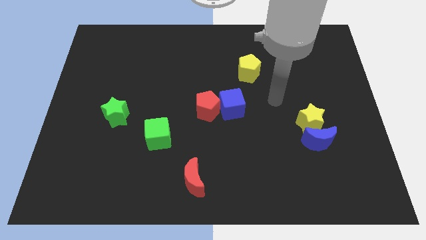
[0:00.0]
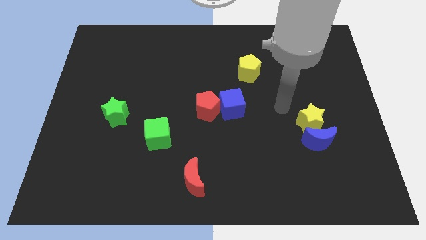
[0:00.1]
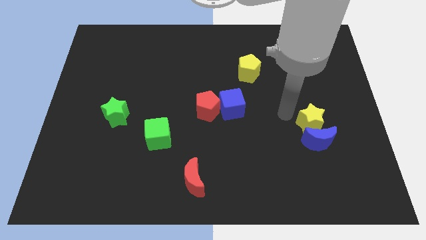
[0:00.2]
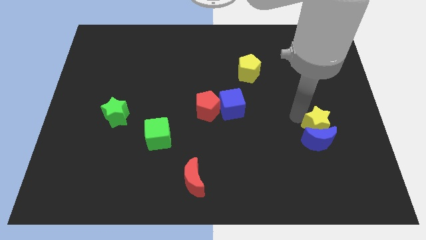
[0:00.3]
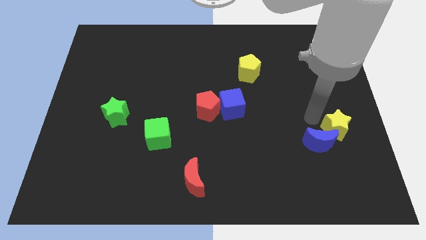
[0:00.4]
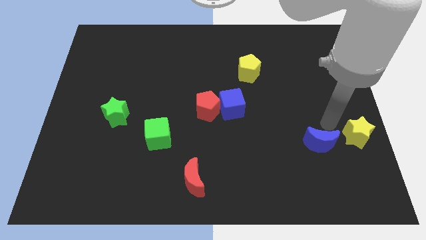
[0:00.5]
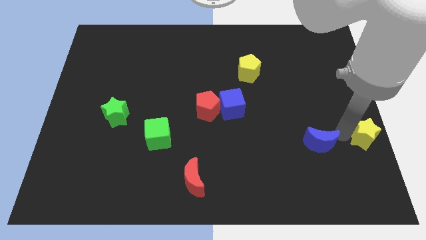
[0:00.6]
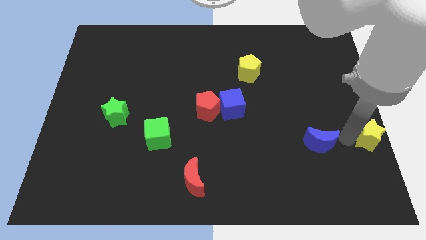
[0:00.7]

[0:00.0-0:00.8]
move the blue moon away from the yellow star

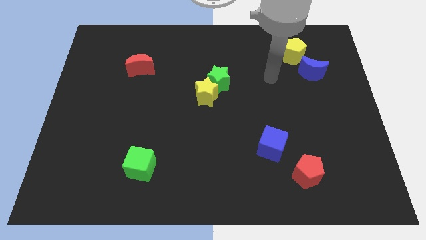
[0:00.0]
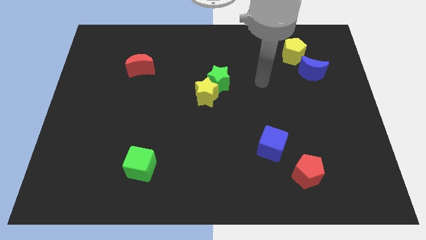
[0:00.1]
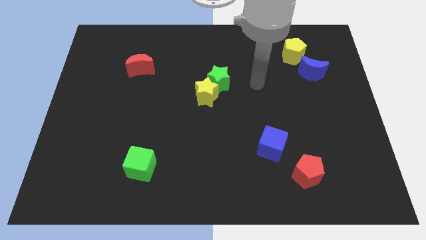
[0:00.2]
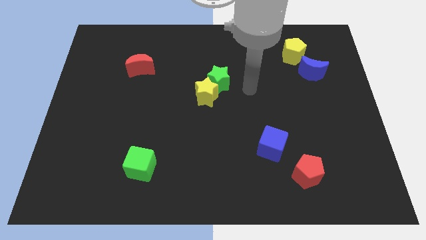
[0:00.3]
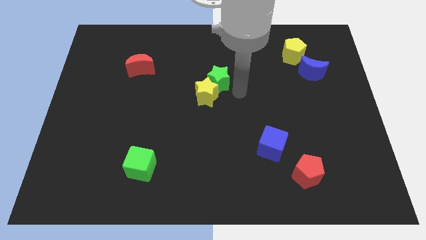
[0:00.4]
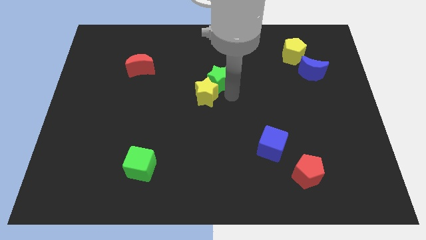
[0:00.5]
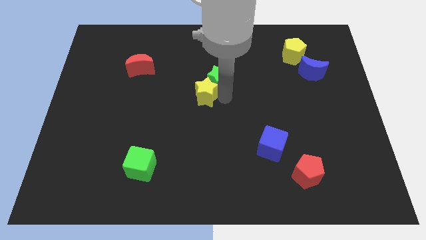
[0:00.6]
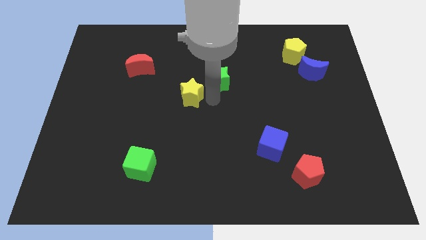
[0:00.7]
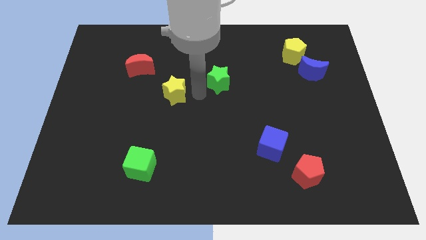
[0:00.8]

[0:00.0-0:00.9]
separate the green star from the yellow star

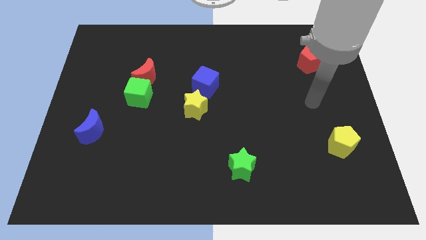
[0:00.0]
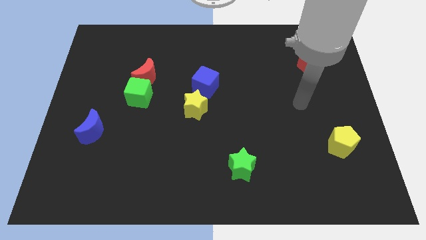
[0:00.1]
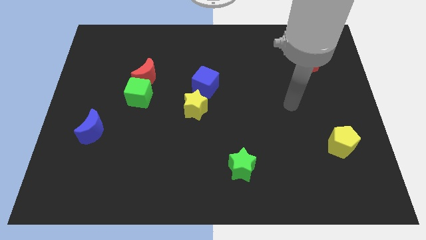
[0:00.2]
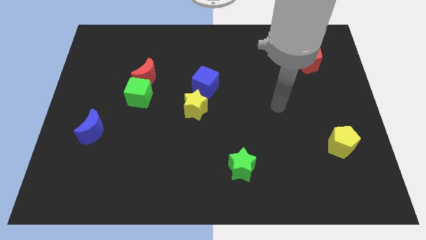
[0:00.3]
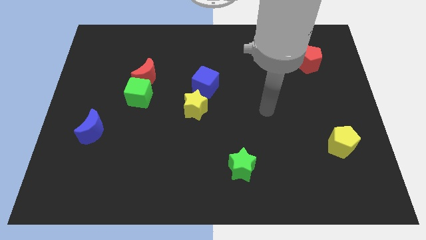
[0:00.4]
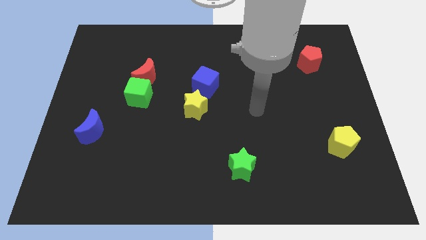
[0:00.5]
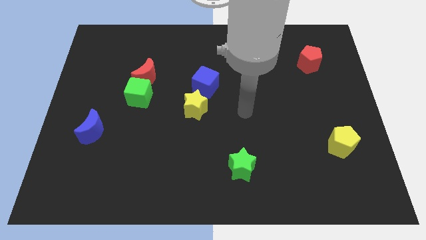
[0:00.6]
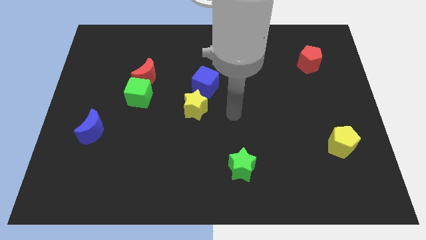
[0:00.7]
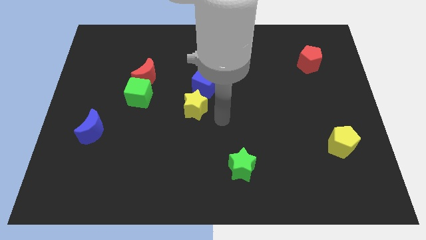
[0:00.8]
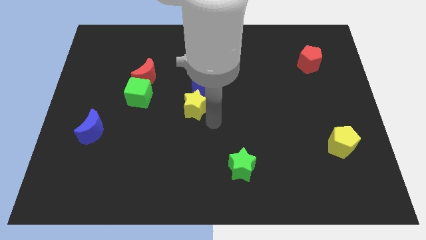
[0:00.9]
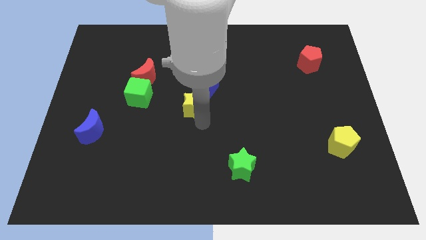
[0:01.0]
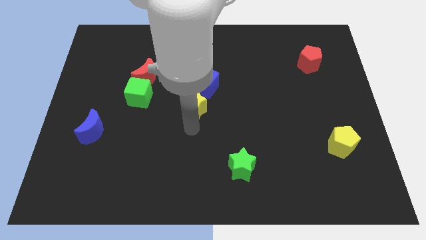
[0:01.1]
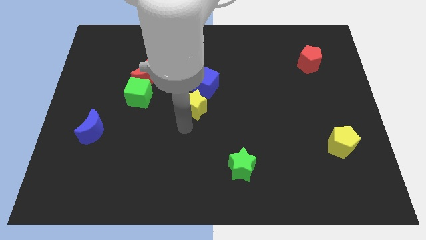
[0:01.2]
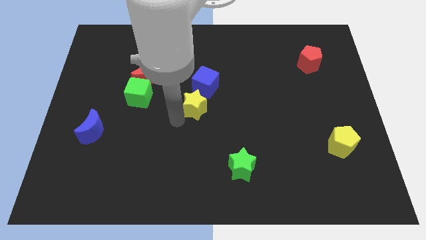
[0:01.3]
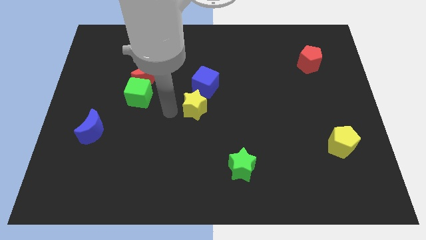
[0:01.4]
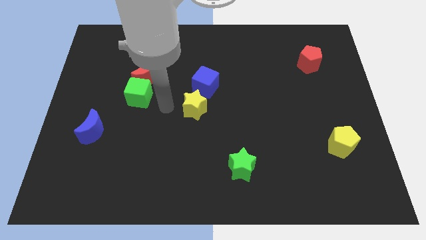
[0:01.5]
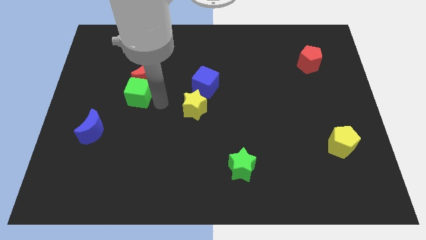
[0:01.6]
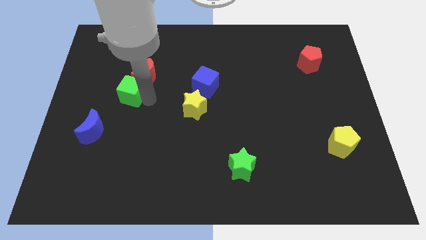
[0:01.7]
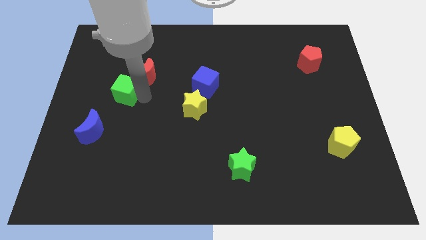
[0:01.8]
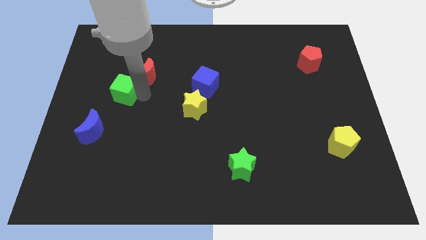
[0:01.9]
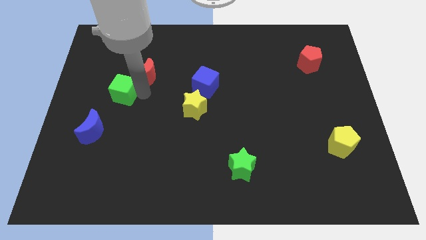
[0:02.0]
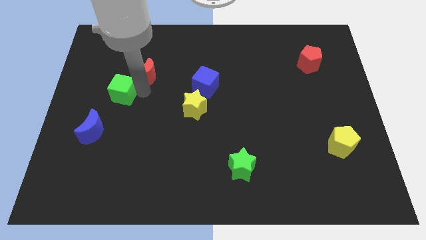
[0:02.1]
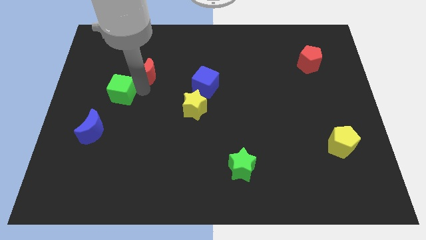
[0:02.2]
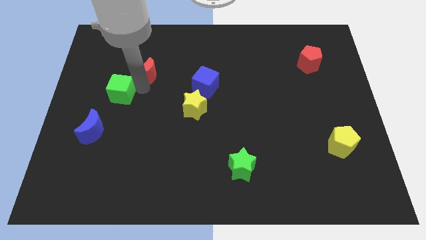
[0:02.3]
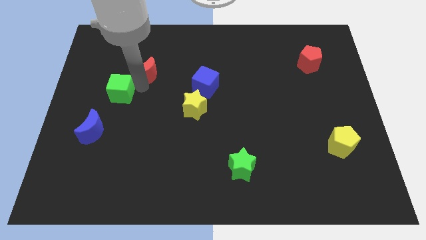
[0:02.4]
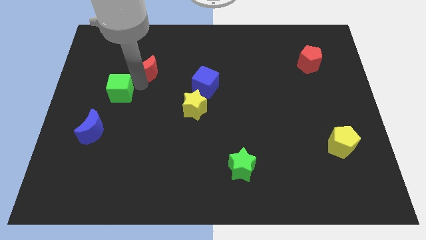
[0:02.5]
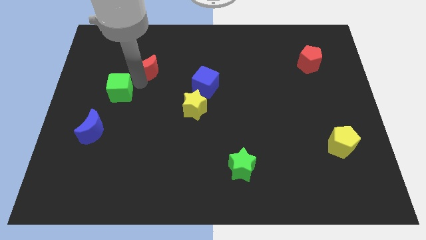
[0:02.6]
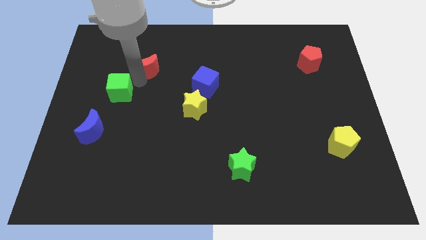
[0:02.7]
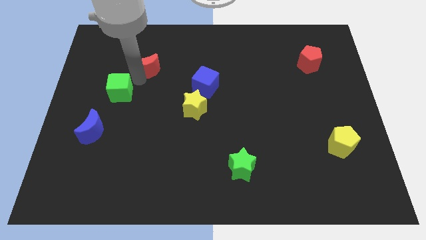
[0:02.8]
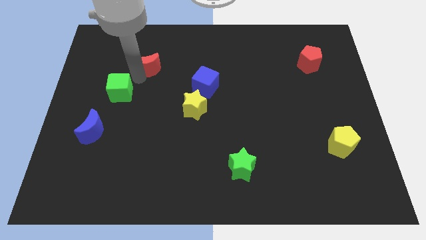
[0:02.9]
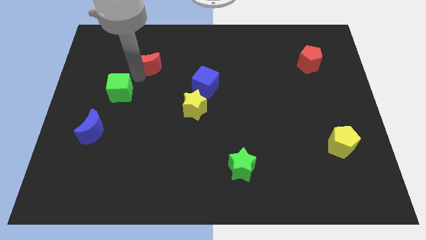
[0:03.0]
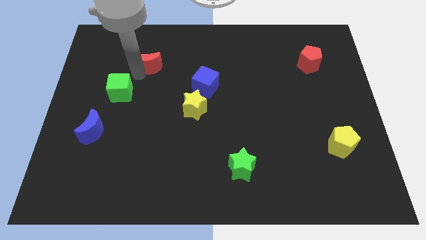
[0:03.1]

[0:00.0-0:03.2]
move the red moon away from the green cube

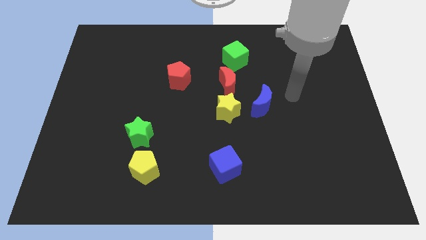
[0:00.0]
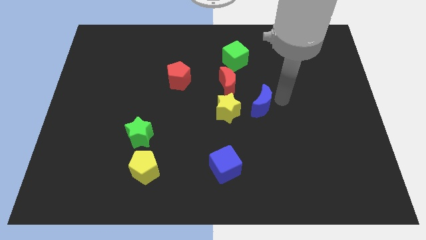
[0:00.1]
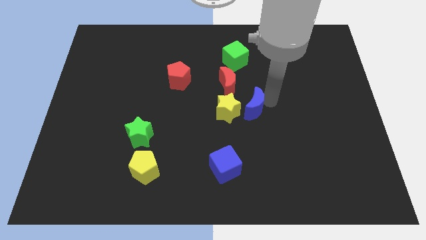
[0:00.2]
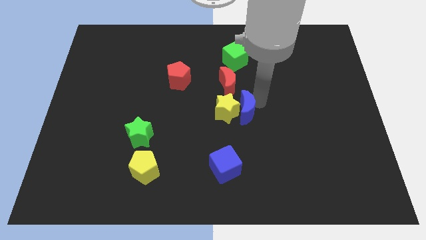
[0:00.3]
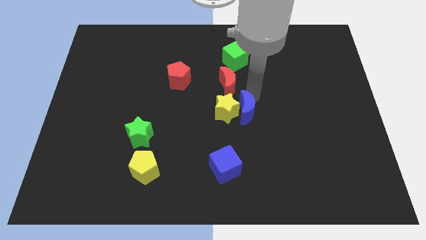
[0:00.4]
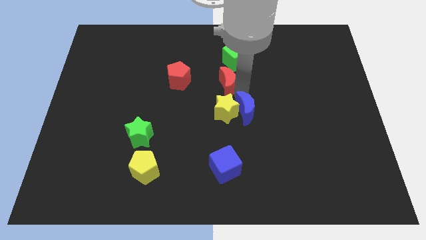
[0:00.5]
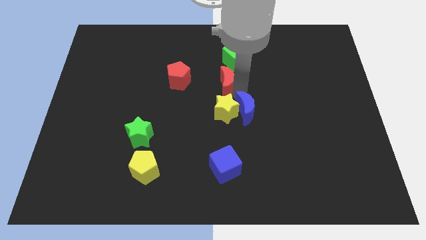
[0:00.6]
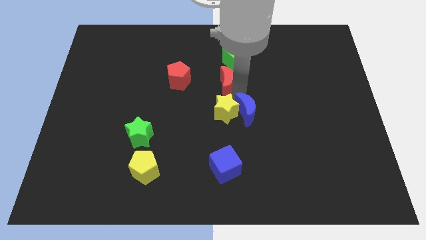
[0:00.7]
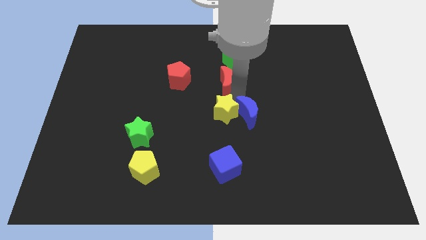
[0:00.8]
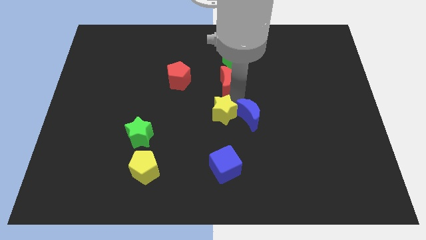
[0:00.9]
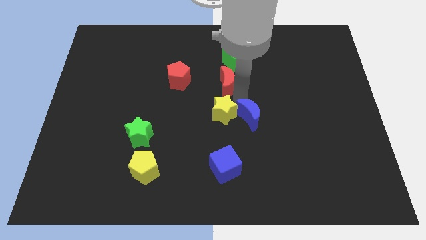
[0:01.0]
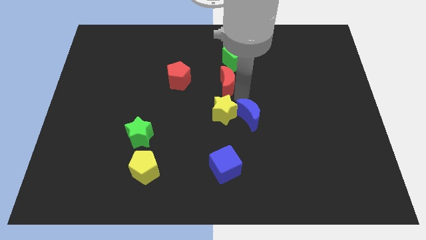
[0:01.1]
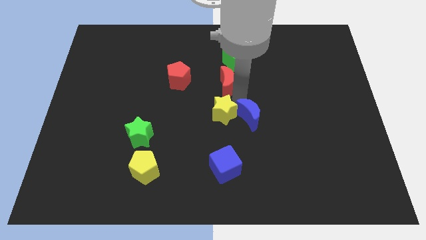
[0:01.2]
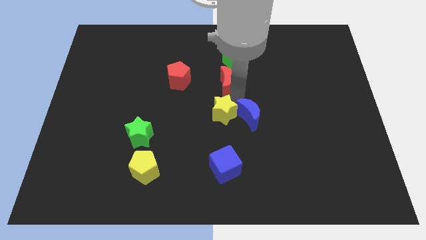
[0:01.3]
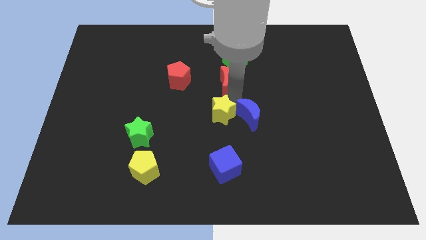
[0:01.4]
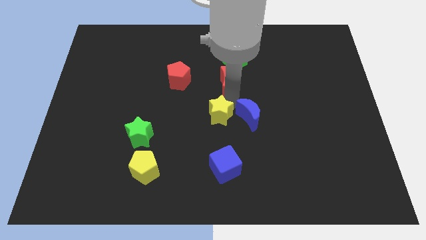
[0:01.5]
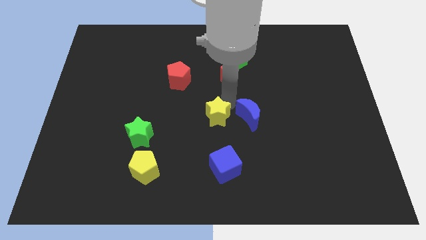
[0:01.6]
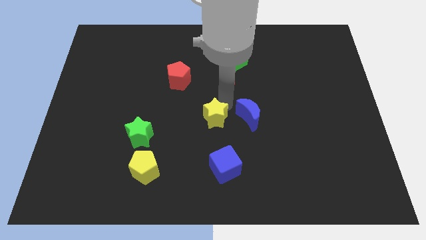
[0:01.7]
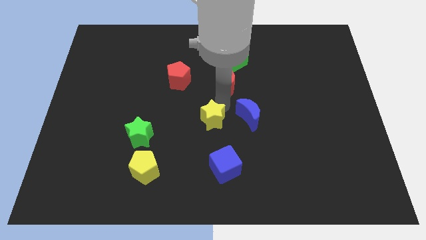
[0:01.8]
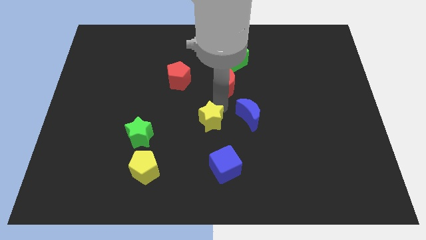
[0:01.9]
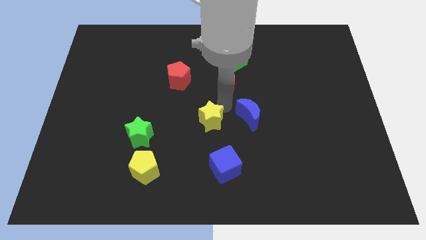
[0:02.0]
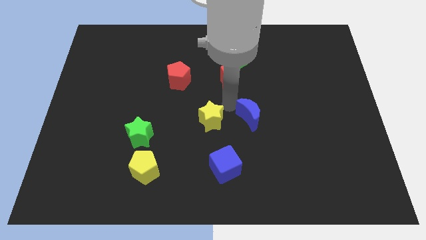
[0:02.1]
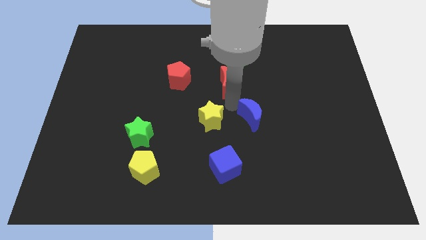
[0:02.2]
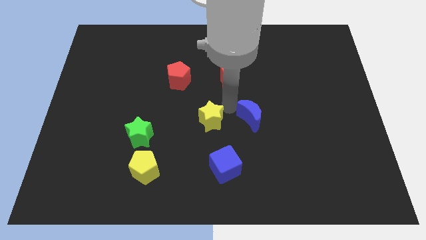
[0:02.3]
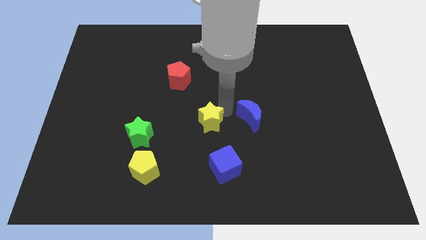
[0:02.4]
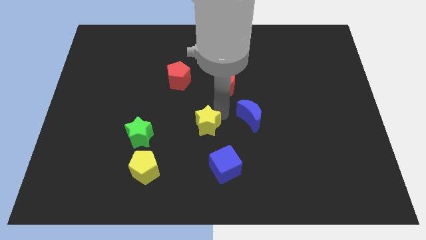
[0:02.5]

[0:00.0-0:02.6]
separate the yellow star from the red moon and blue moon

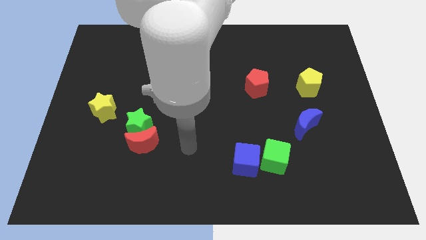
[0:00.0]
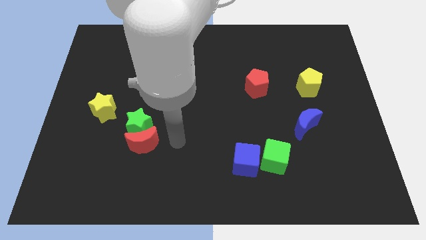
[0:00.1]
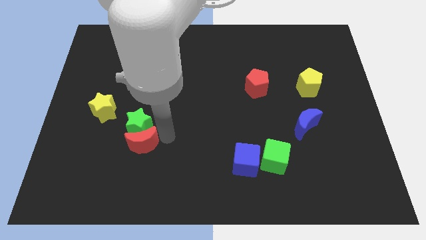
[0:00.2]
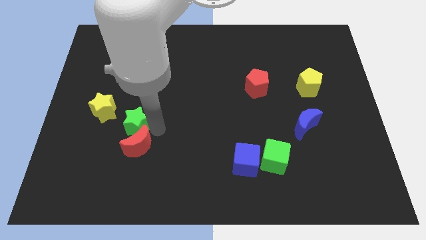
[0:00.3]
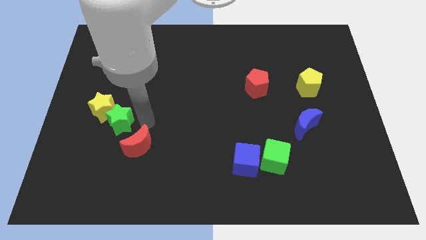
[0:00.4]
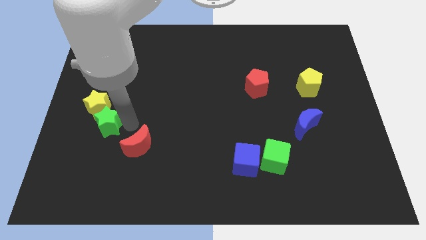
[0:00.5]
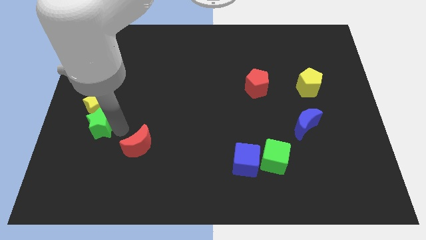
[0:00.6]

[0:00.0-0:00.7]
pull the red moon apart from the green star

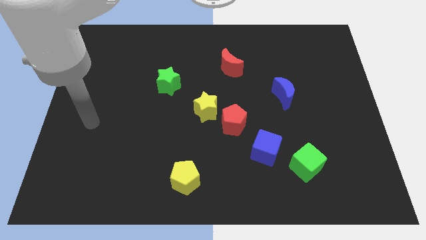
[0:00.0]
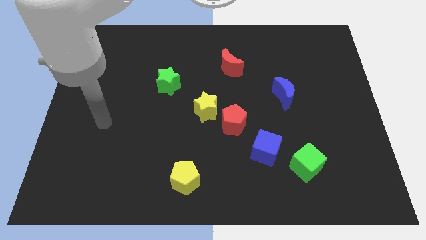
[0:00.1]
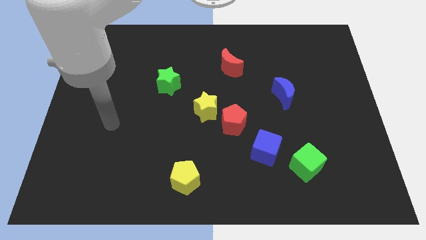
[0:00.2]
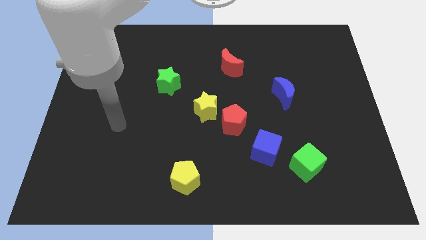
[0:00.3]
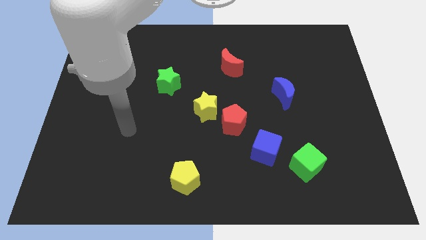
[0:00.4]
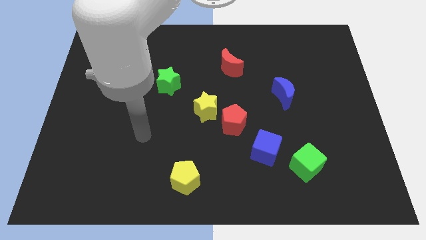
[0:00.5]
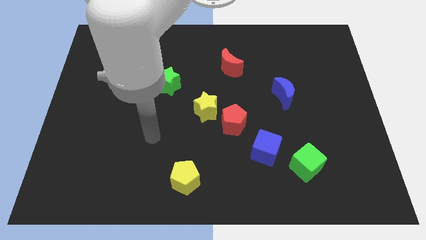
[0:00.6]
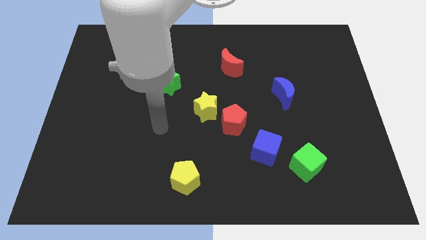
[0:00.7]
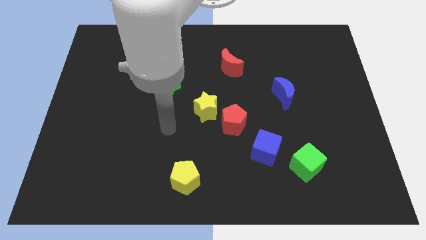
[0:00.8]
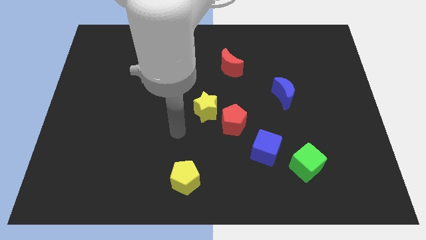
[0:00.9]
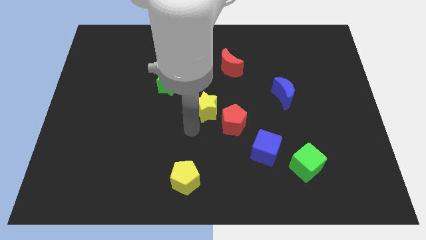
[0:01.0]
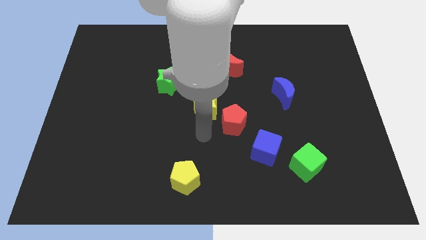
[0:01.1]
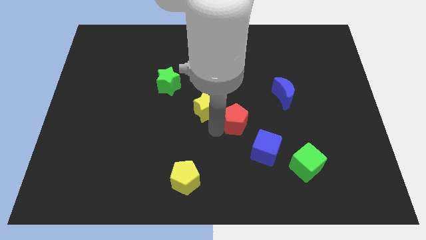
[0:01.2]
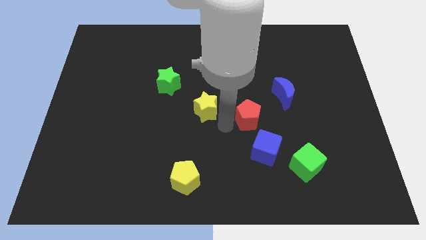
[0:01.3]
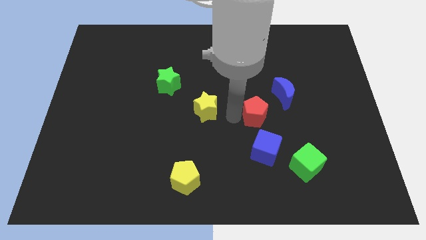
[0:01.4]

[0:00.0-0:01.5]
move the yellow star away from the red pentagon
